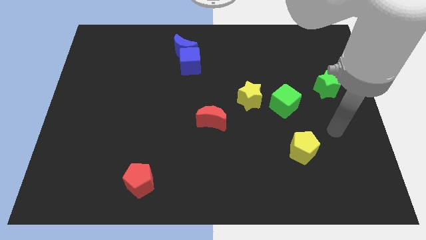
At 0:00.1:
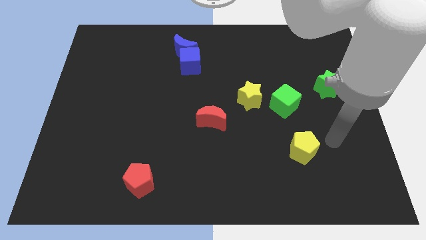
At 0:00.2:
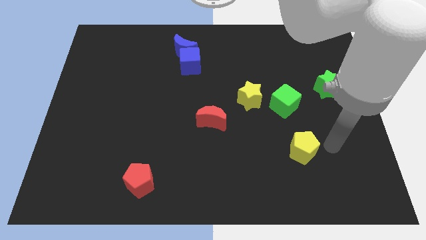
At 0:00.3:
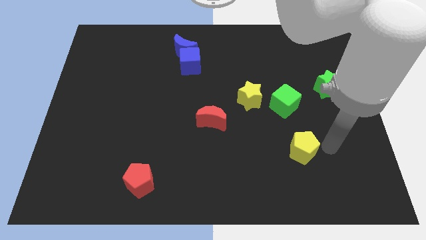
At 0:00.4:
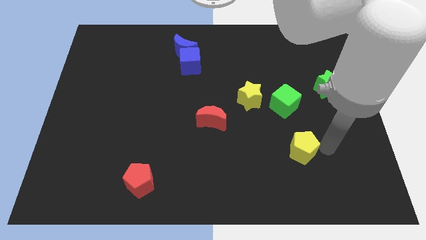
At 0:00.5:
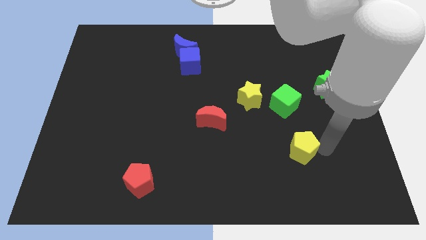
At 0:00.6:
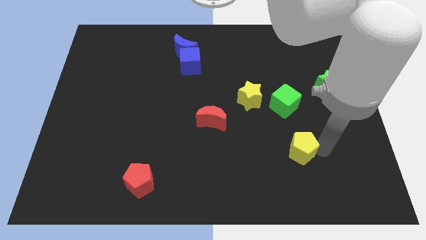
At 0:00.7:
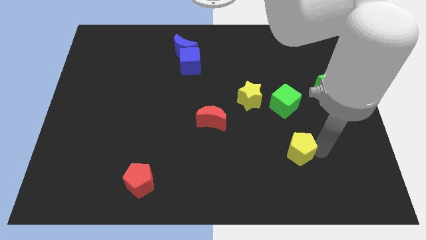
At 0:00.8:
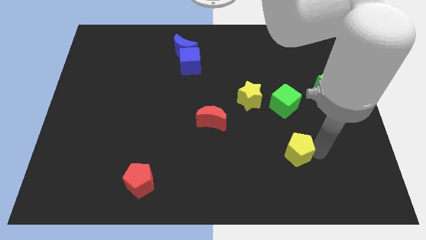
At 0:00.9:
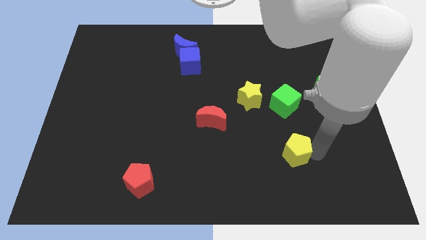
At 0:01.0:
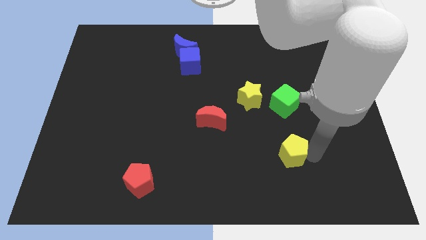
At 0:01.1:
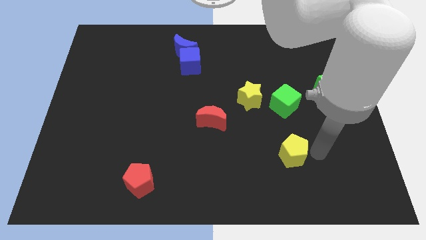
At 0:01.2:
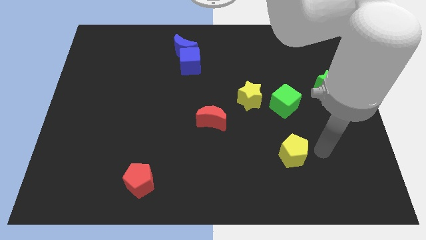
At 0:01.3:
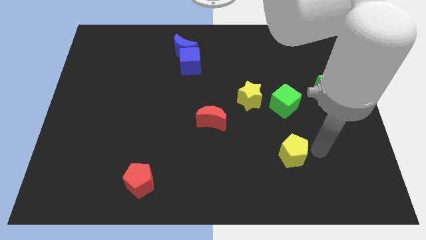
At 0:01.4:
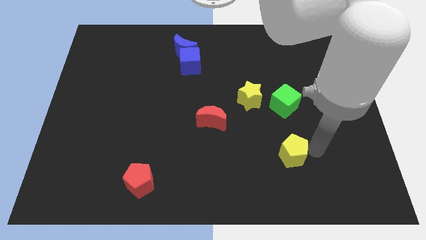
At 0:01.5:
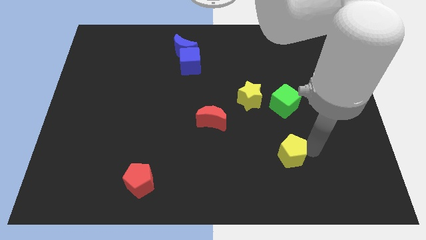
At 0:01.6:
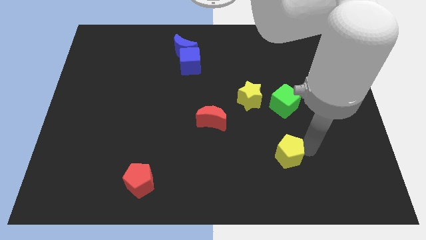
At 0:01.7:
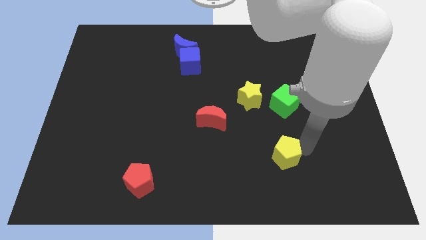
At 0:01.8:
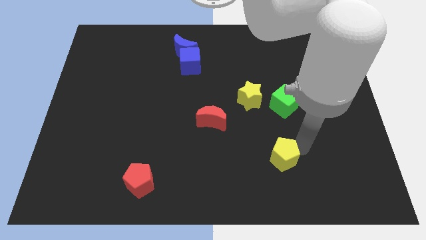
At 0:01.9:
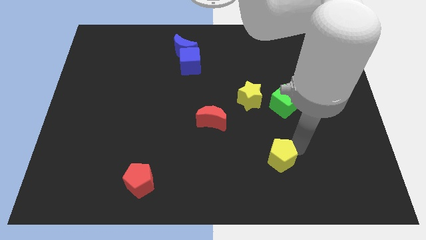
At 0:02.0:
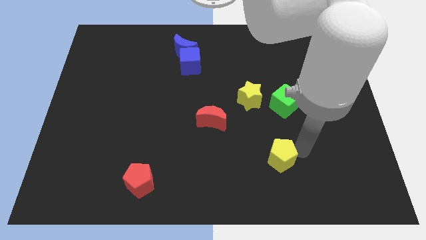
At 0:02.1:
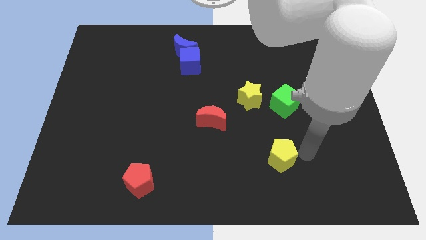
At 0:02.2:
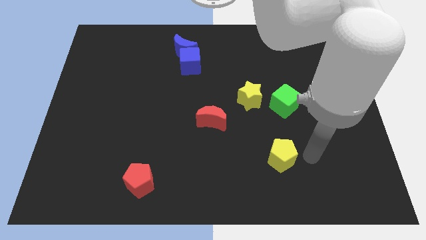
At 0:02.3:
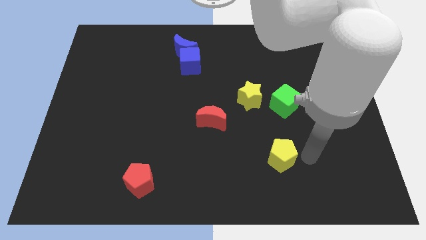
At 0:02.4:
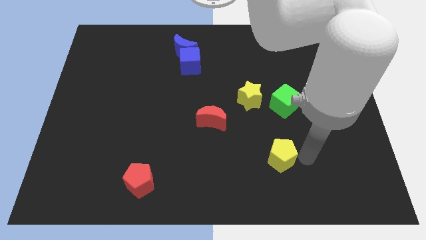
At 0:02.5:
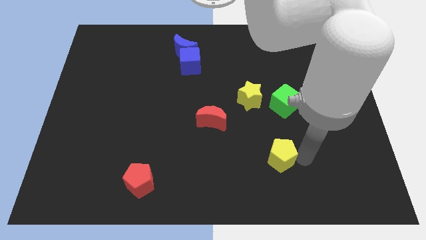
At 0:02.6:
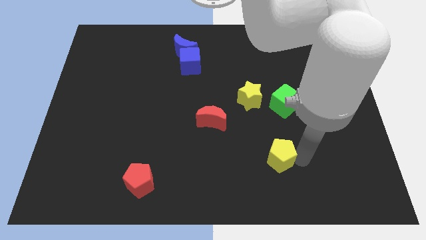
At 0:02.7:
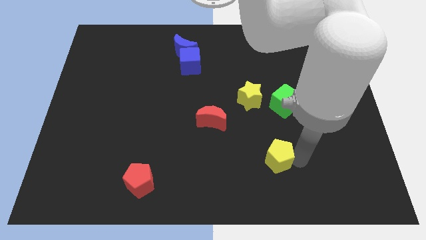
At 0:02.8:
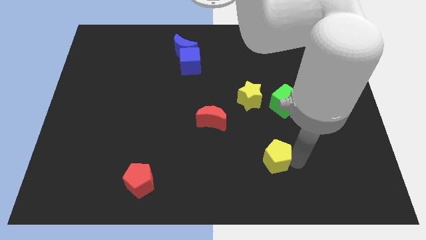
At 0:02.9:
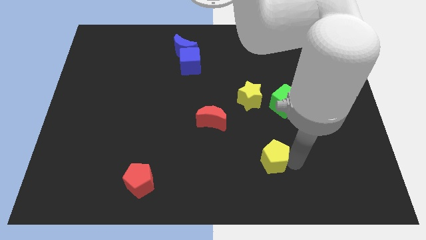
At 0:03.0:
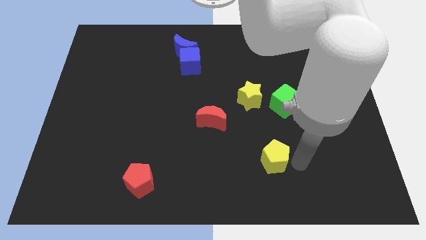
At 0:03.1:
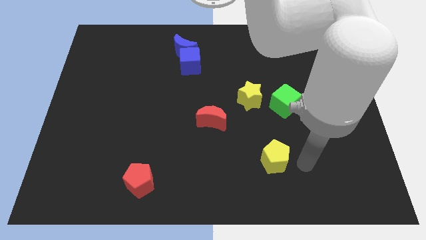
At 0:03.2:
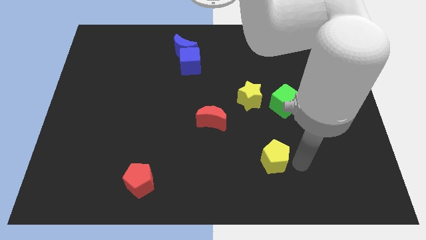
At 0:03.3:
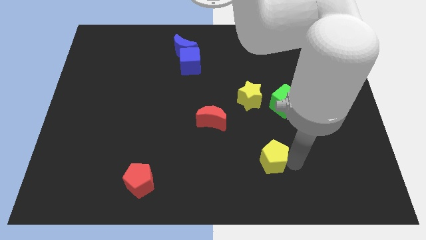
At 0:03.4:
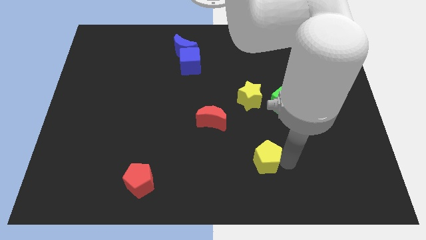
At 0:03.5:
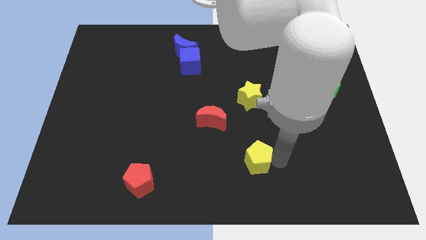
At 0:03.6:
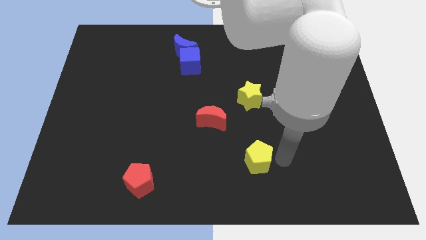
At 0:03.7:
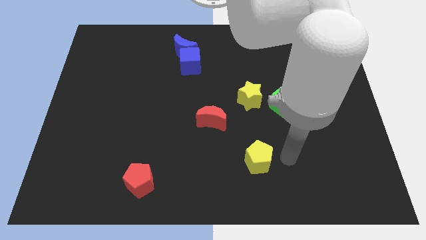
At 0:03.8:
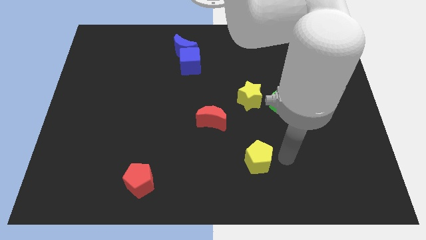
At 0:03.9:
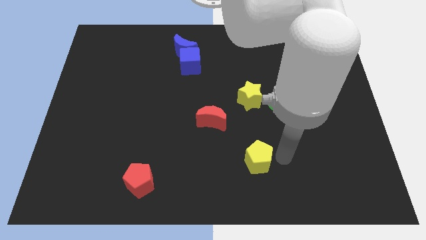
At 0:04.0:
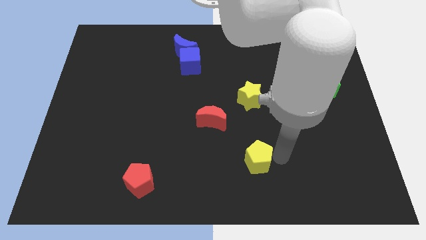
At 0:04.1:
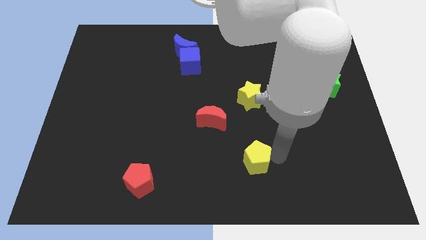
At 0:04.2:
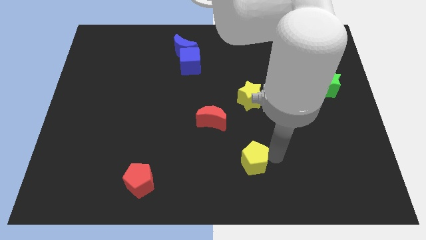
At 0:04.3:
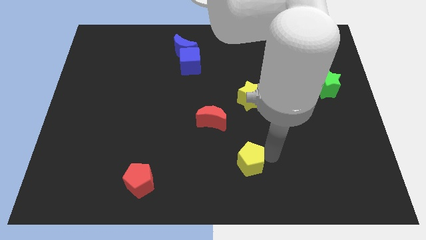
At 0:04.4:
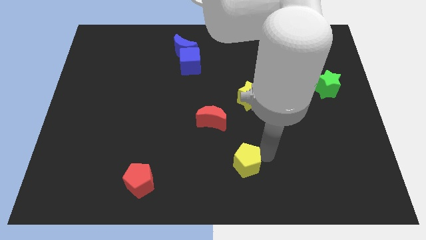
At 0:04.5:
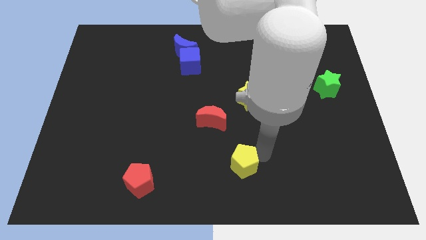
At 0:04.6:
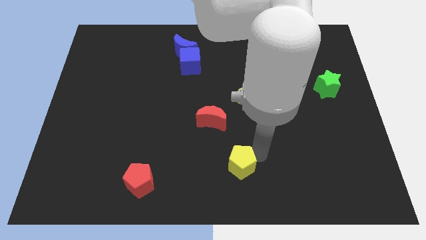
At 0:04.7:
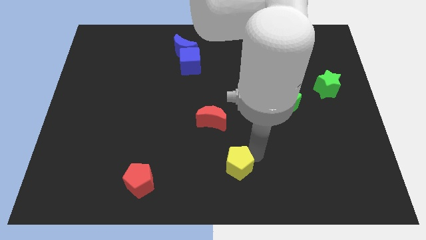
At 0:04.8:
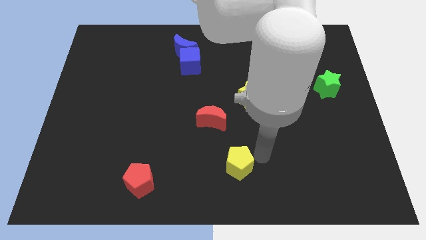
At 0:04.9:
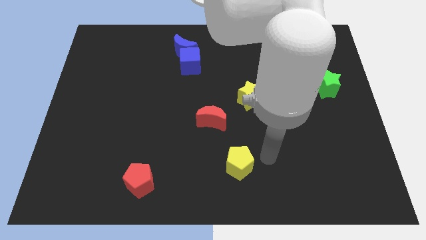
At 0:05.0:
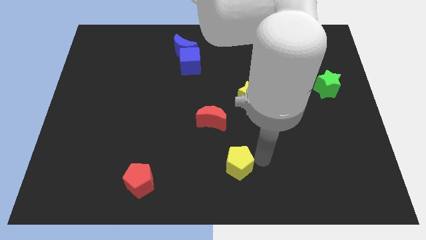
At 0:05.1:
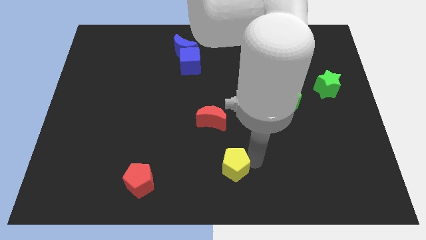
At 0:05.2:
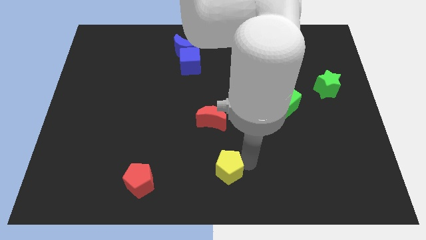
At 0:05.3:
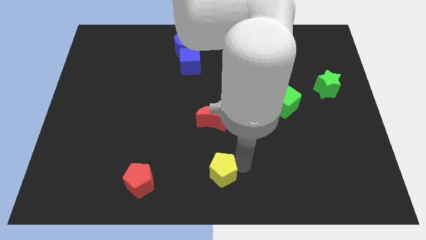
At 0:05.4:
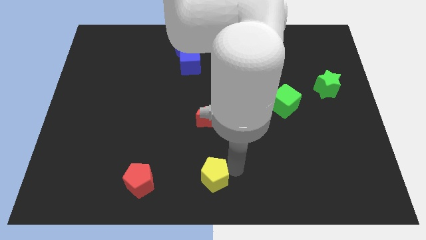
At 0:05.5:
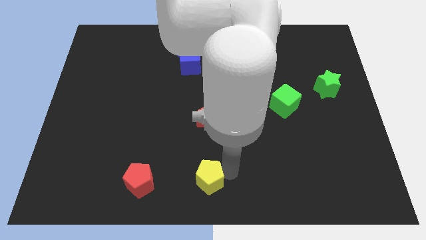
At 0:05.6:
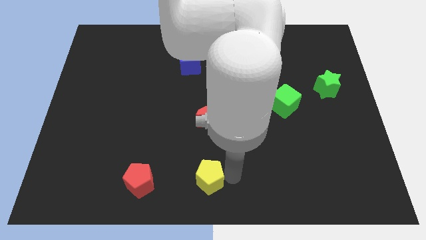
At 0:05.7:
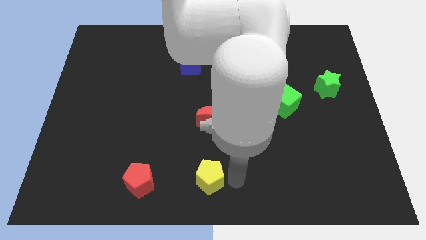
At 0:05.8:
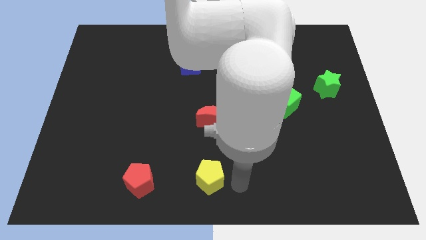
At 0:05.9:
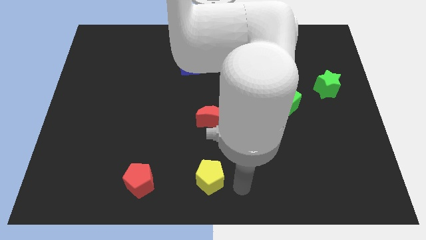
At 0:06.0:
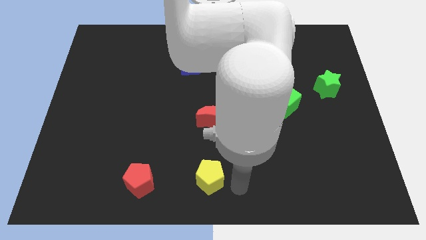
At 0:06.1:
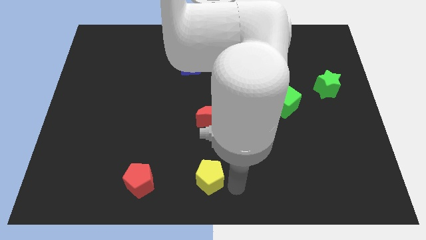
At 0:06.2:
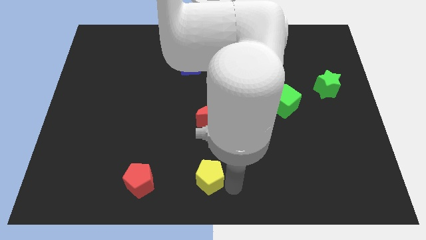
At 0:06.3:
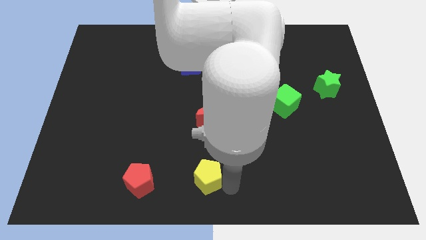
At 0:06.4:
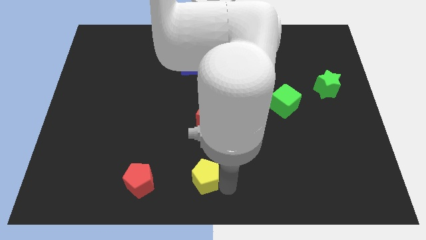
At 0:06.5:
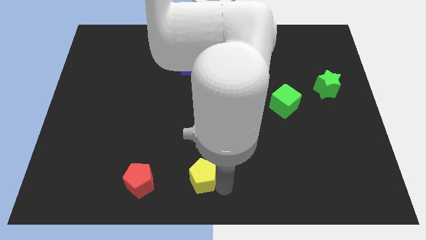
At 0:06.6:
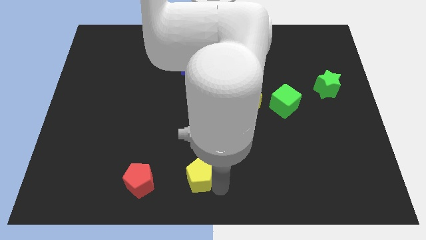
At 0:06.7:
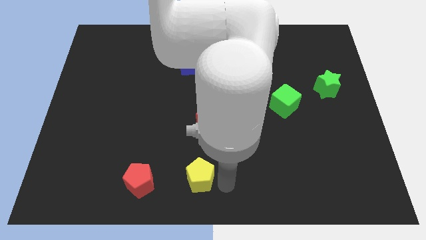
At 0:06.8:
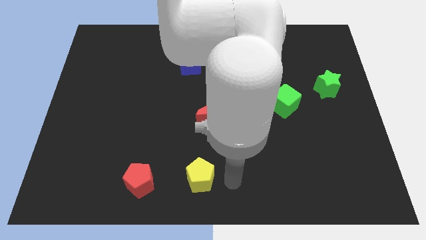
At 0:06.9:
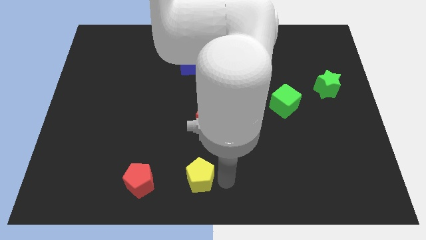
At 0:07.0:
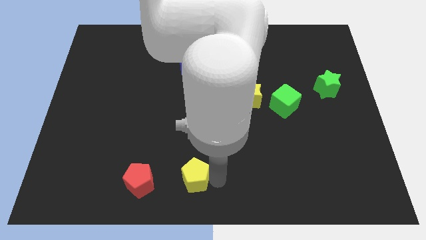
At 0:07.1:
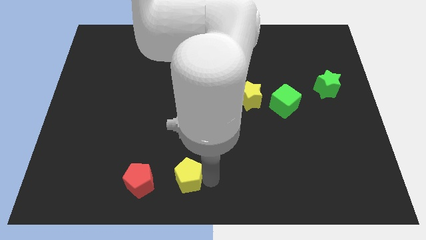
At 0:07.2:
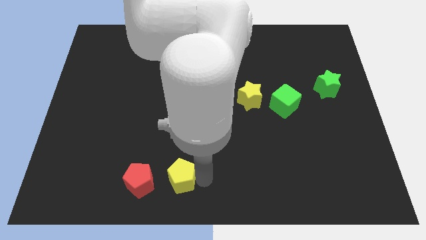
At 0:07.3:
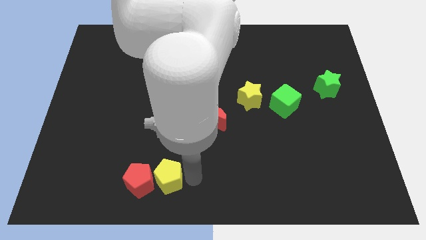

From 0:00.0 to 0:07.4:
move the yellow pentagon towards the red pentagon
